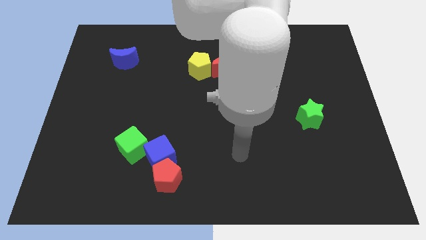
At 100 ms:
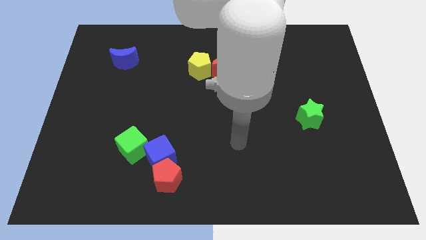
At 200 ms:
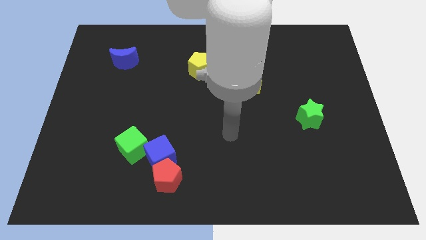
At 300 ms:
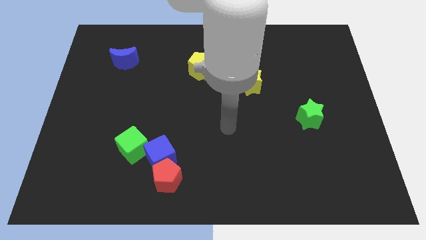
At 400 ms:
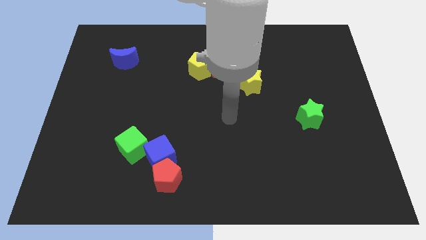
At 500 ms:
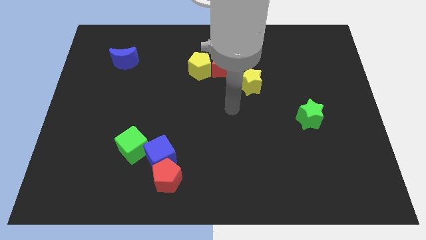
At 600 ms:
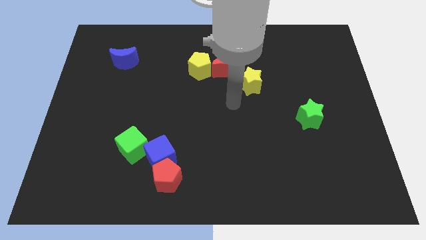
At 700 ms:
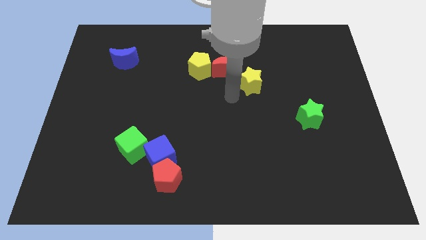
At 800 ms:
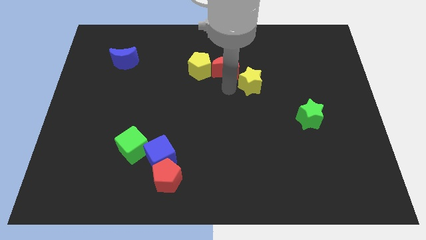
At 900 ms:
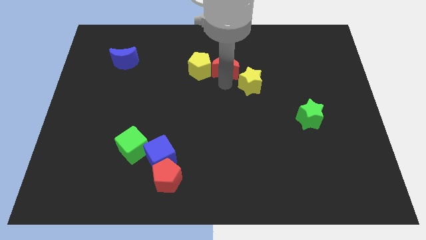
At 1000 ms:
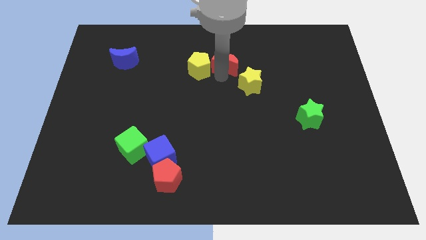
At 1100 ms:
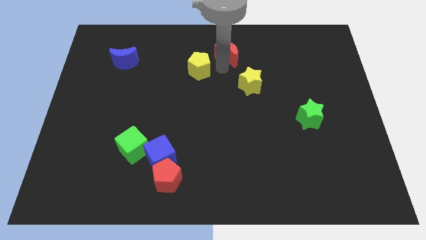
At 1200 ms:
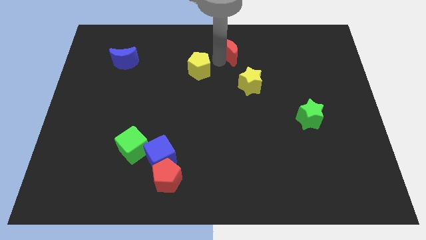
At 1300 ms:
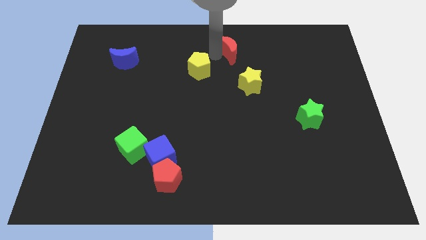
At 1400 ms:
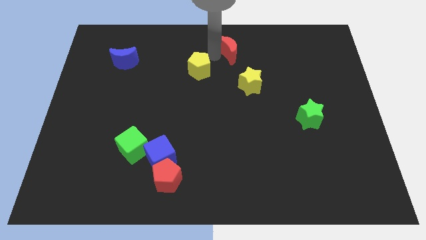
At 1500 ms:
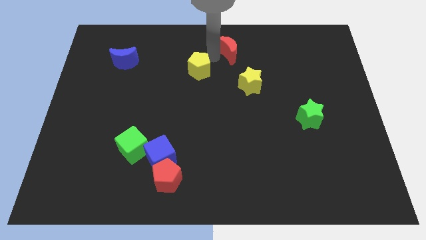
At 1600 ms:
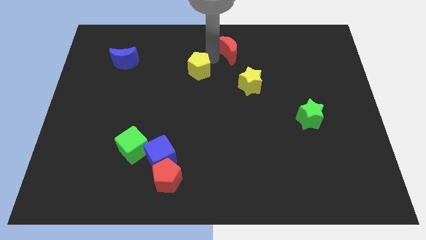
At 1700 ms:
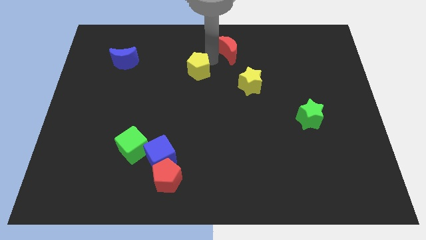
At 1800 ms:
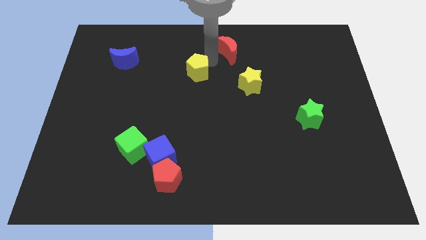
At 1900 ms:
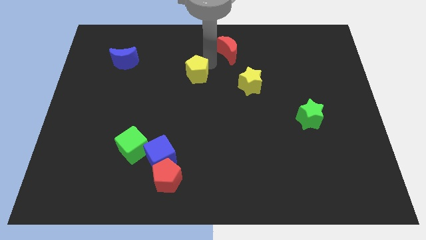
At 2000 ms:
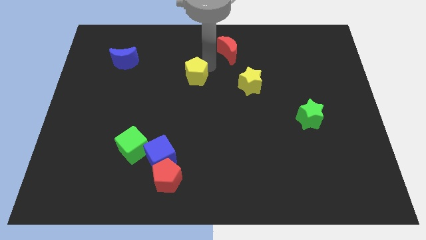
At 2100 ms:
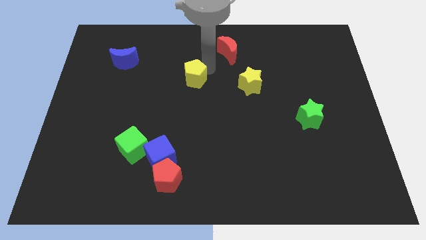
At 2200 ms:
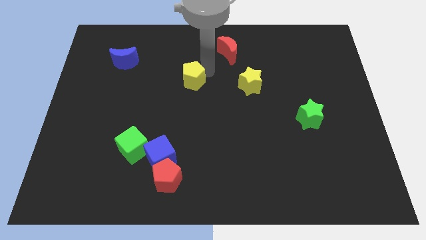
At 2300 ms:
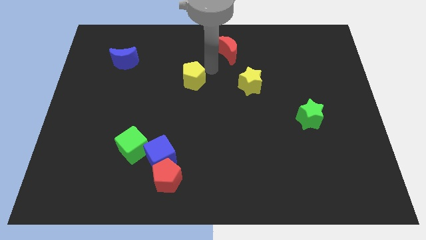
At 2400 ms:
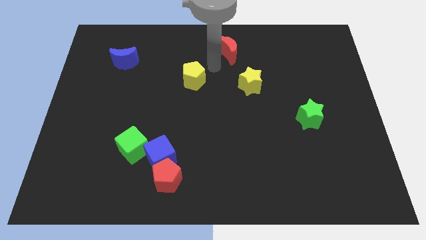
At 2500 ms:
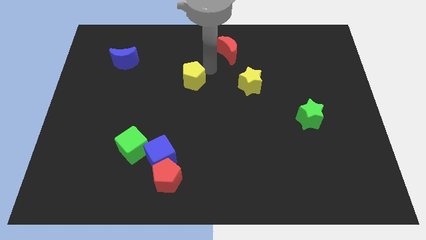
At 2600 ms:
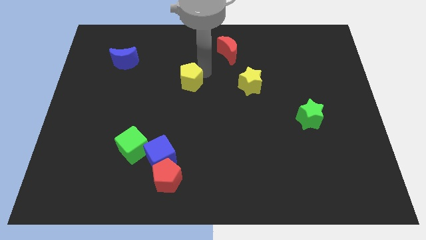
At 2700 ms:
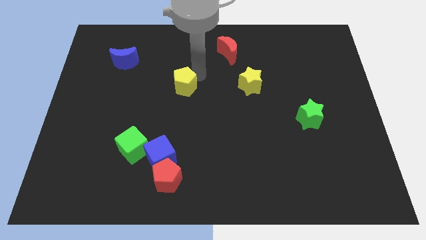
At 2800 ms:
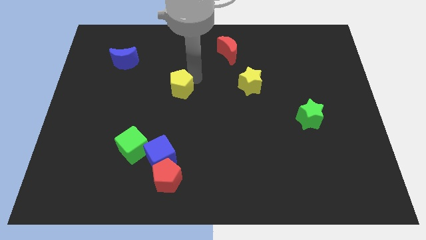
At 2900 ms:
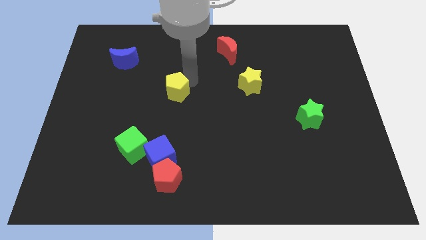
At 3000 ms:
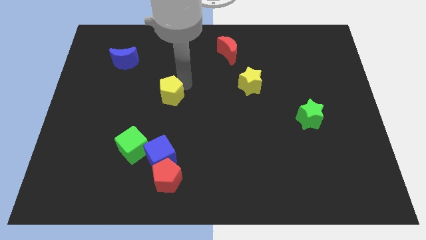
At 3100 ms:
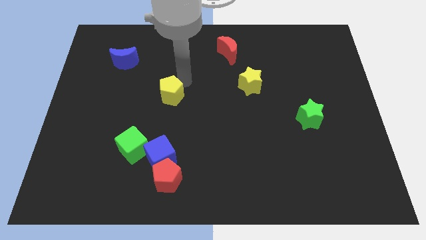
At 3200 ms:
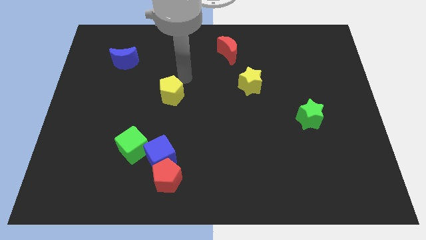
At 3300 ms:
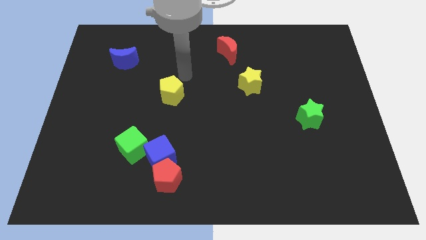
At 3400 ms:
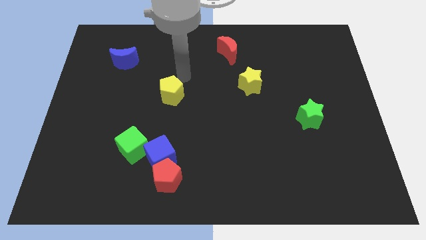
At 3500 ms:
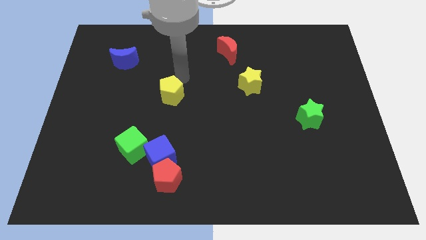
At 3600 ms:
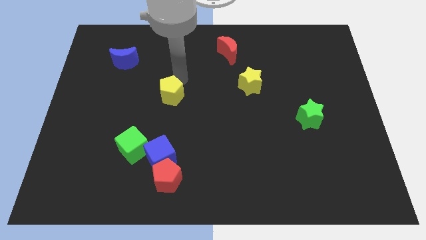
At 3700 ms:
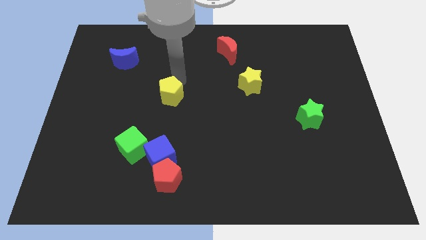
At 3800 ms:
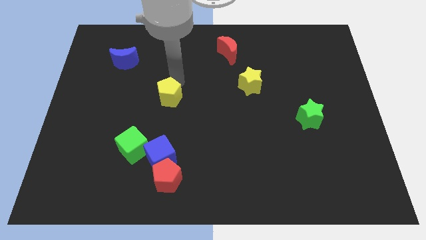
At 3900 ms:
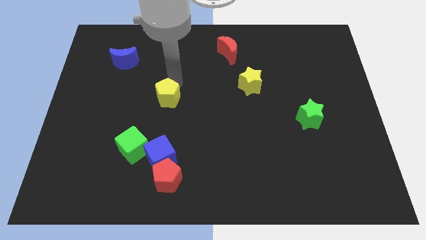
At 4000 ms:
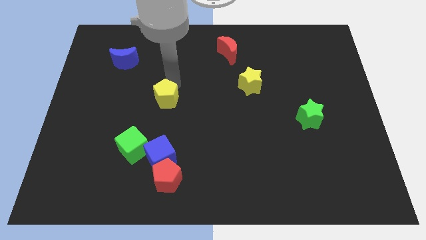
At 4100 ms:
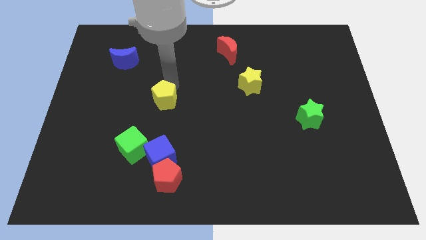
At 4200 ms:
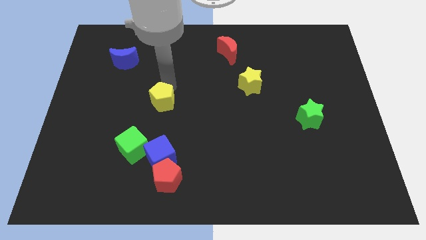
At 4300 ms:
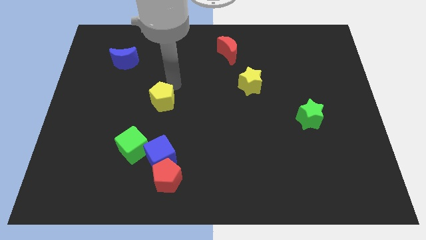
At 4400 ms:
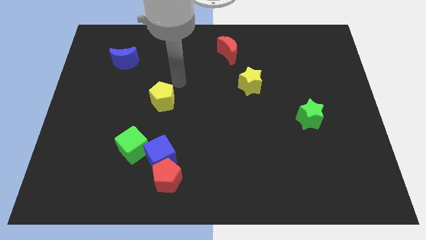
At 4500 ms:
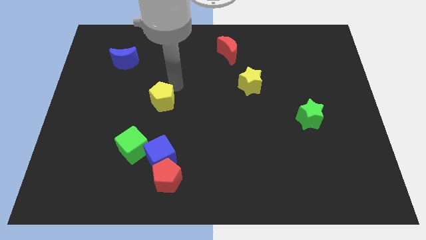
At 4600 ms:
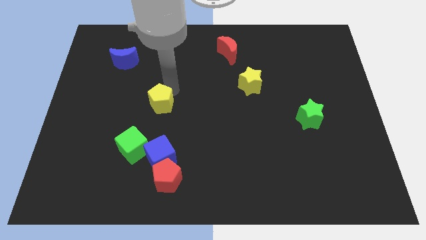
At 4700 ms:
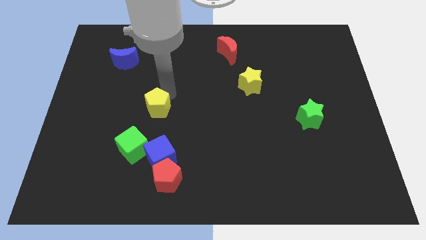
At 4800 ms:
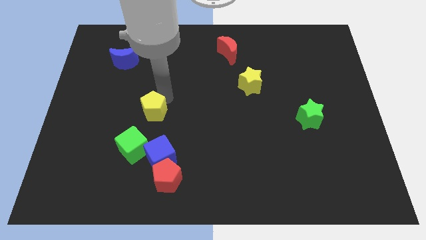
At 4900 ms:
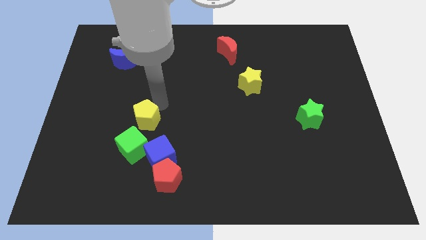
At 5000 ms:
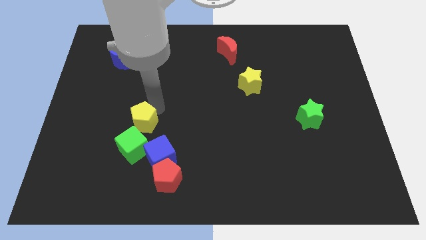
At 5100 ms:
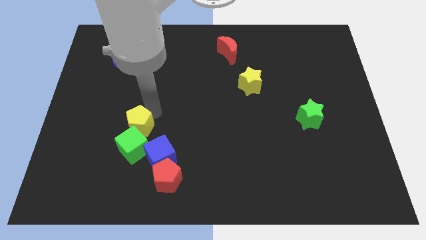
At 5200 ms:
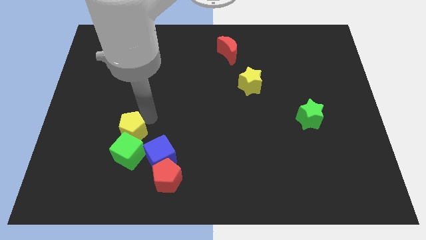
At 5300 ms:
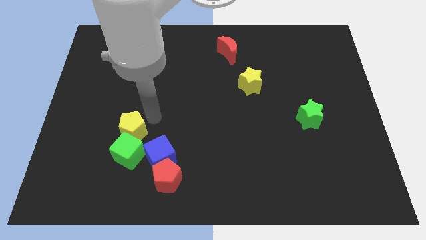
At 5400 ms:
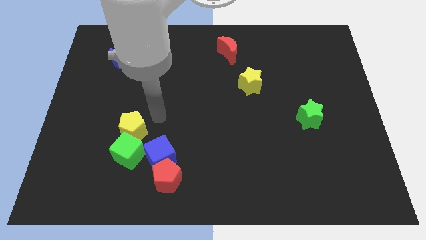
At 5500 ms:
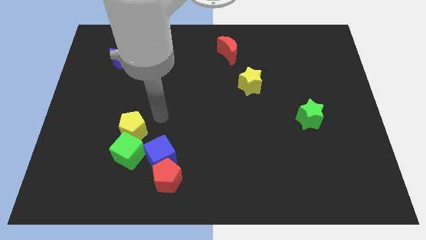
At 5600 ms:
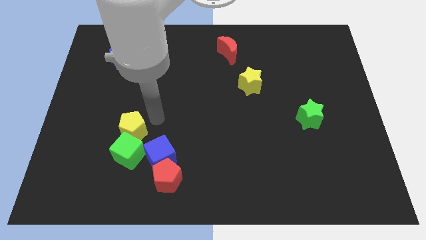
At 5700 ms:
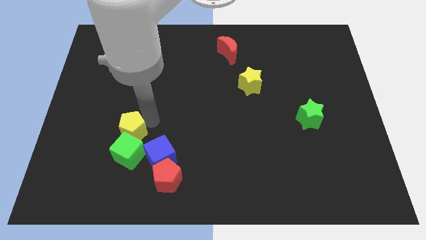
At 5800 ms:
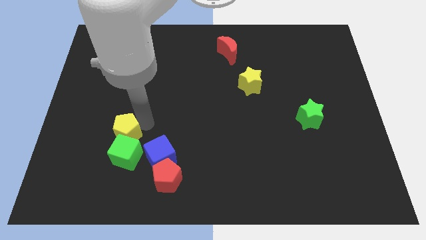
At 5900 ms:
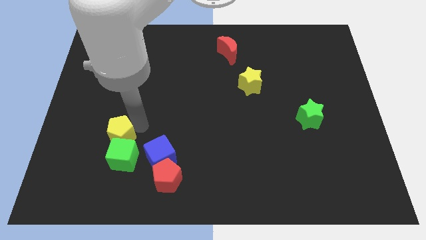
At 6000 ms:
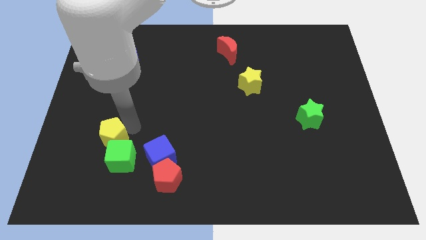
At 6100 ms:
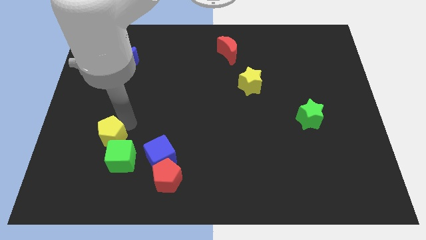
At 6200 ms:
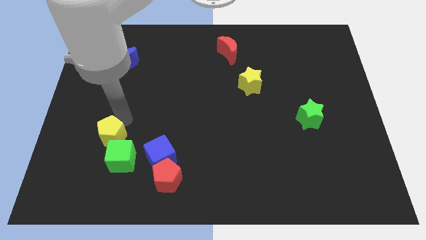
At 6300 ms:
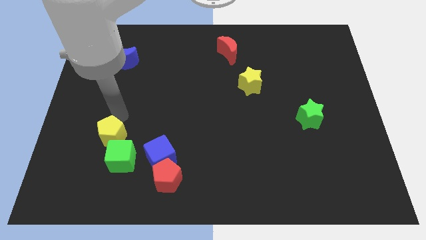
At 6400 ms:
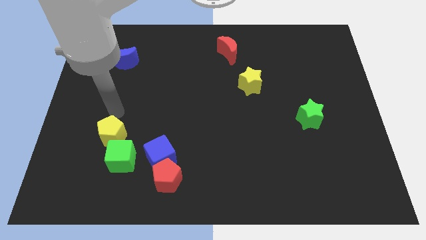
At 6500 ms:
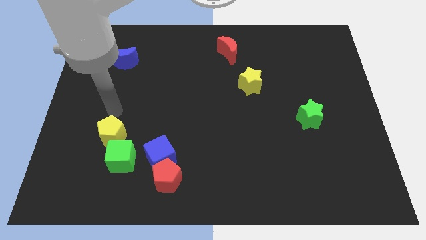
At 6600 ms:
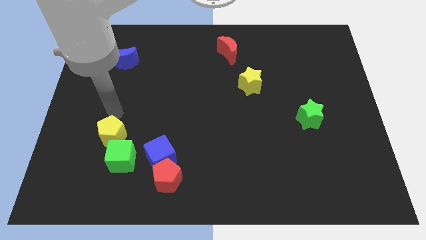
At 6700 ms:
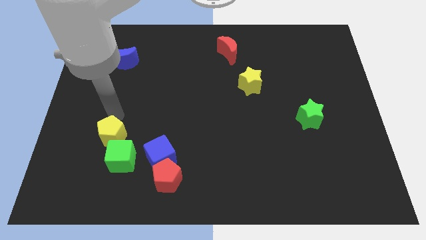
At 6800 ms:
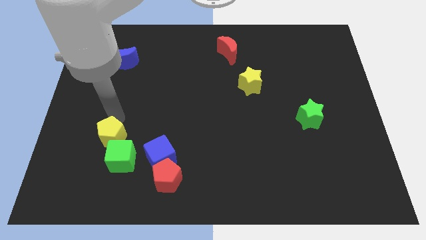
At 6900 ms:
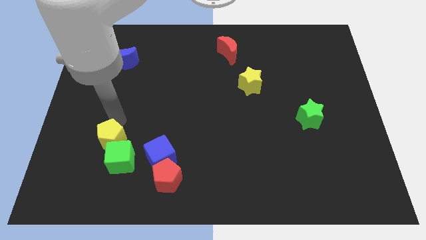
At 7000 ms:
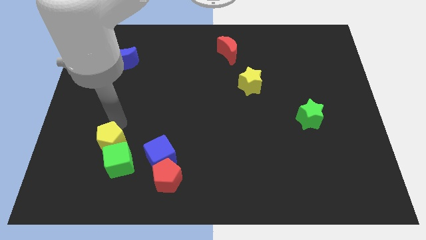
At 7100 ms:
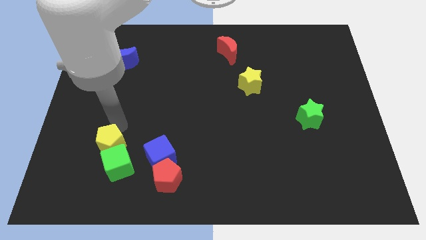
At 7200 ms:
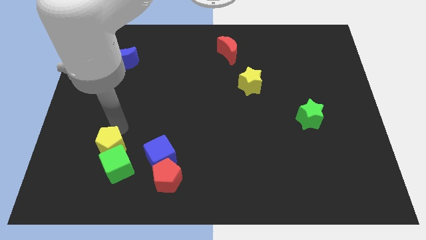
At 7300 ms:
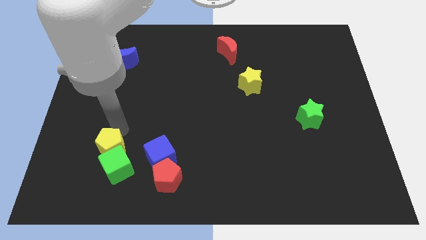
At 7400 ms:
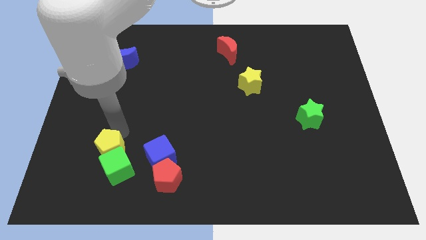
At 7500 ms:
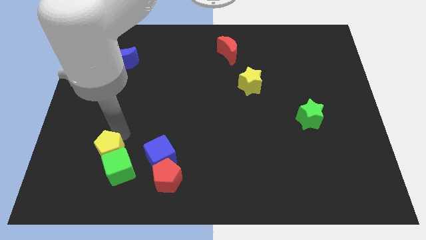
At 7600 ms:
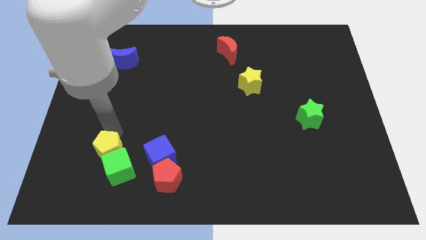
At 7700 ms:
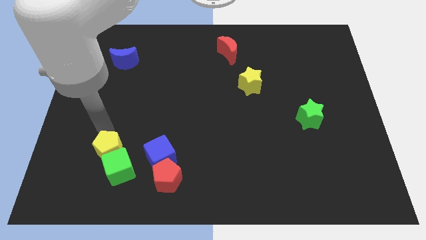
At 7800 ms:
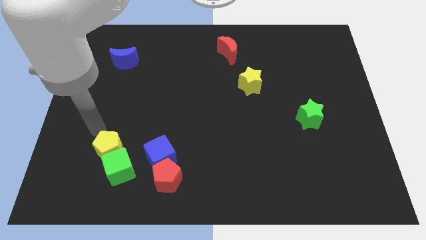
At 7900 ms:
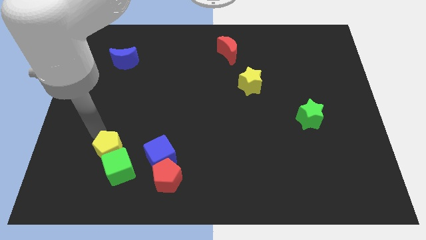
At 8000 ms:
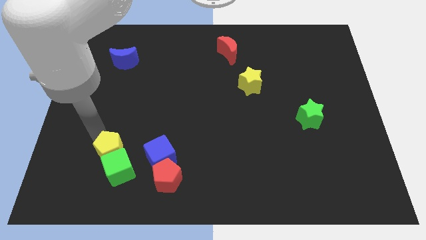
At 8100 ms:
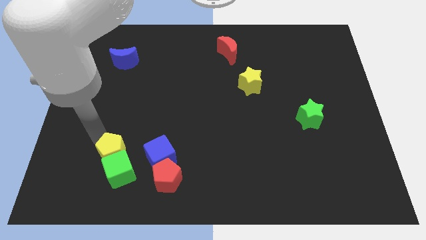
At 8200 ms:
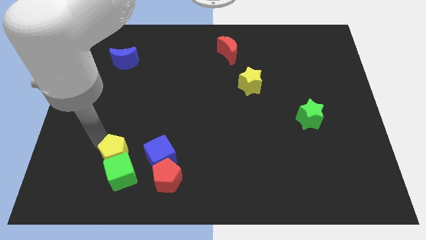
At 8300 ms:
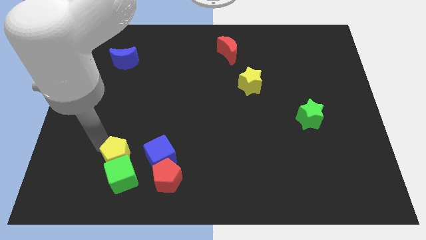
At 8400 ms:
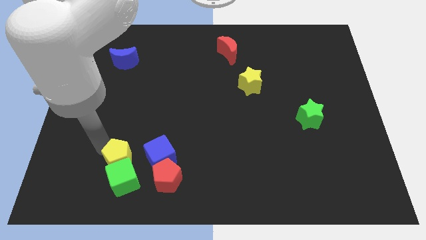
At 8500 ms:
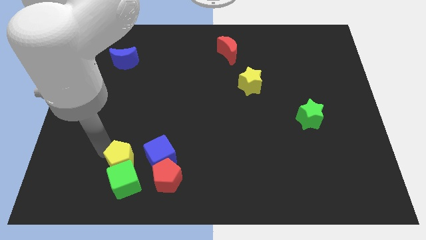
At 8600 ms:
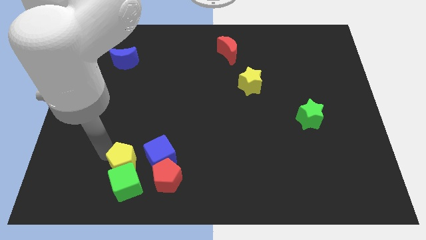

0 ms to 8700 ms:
put the yellow pentagon to the bottom left side of the blue cube

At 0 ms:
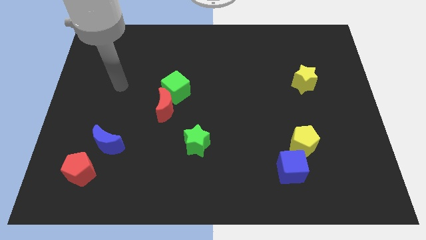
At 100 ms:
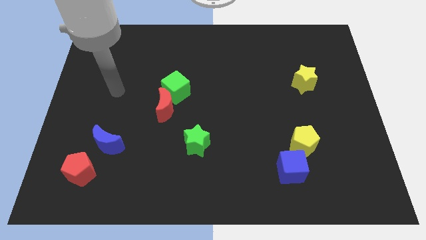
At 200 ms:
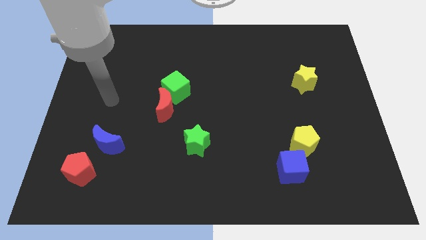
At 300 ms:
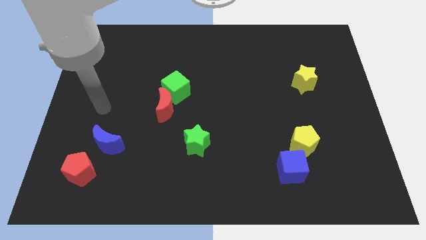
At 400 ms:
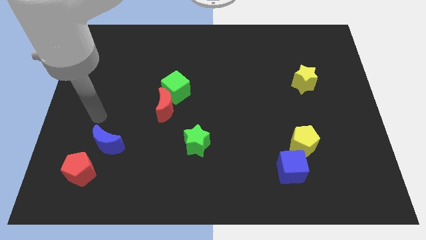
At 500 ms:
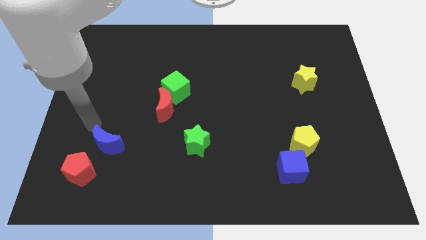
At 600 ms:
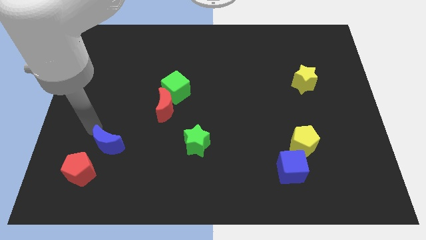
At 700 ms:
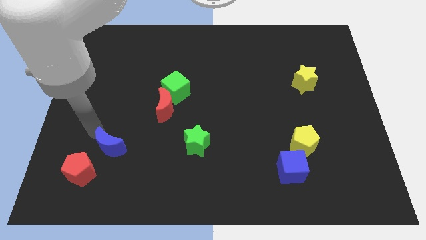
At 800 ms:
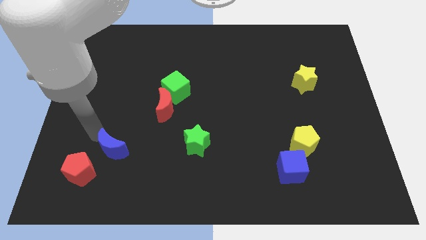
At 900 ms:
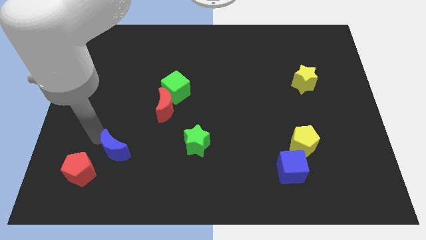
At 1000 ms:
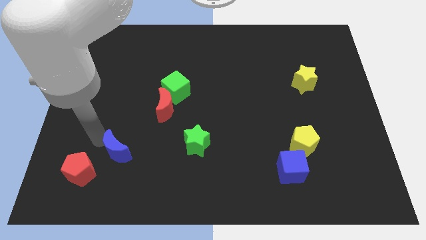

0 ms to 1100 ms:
move the blue moon just right of the red pentagon
